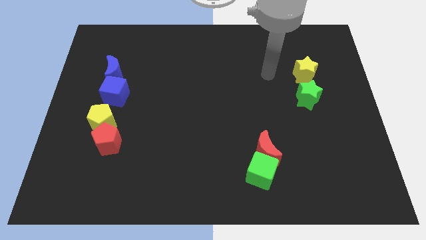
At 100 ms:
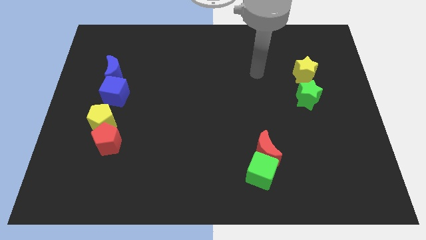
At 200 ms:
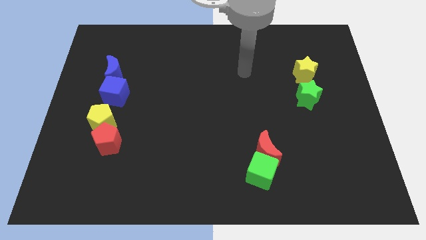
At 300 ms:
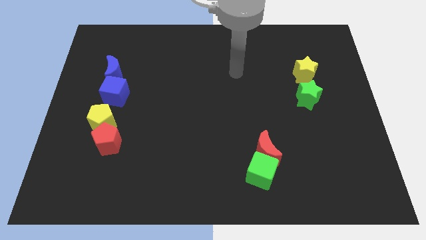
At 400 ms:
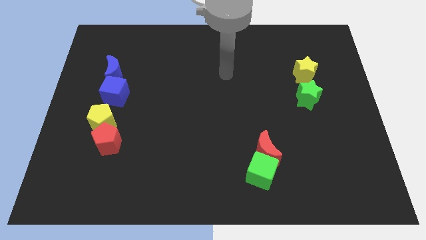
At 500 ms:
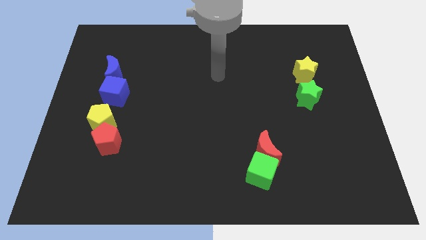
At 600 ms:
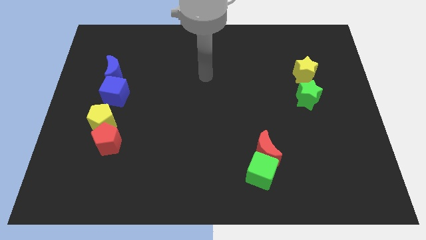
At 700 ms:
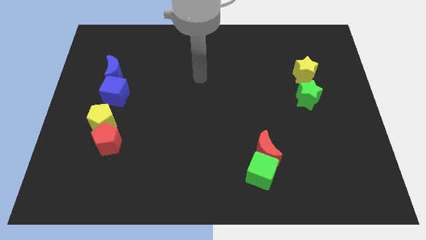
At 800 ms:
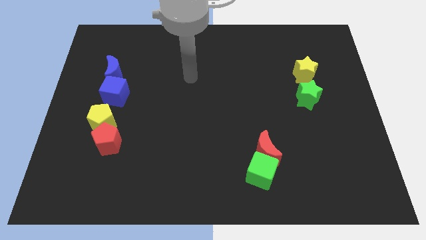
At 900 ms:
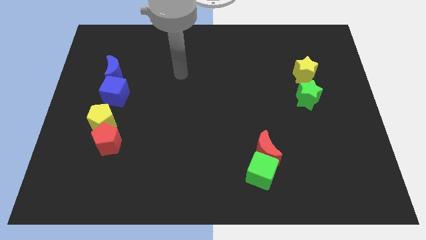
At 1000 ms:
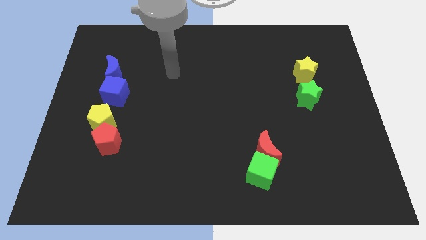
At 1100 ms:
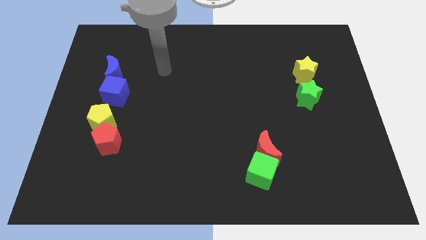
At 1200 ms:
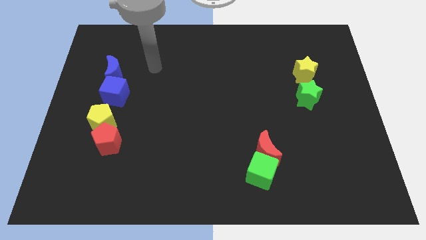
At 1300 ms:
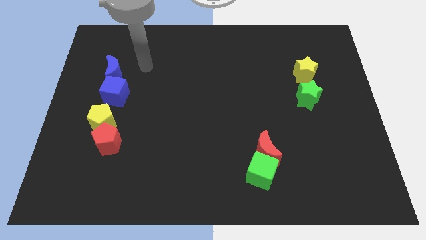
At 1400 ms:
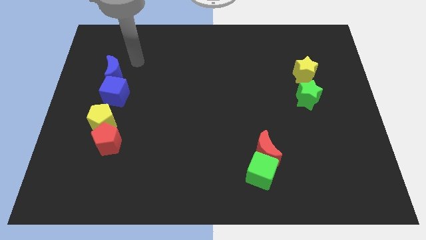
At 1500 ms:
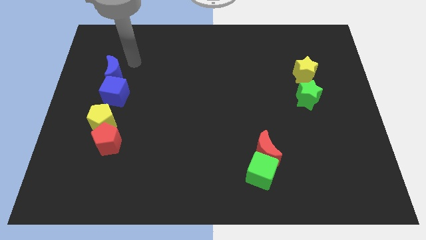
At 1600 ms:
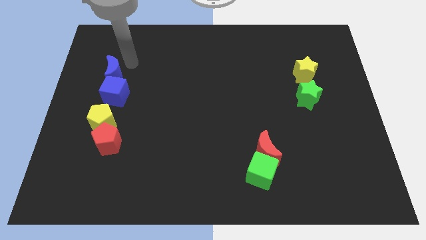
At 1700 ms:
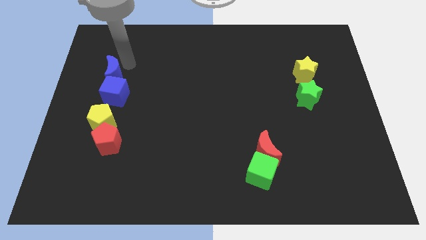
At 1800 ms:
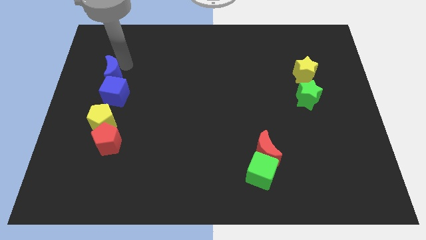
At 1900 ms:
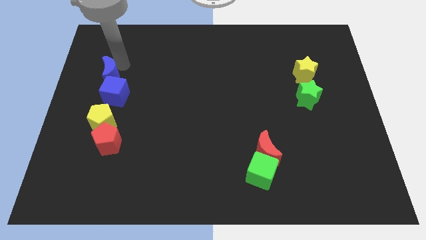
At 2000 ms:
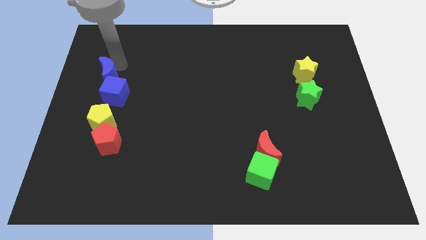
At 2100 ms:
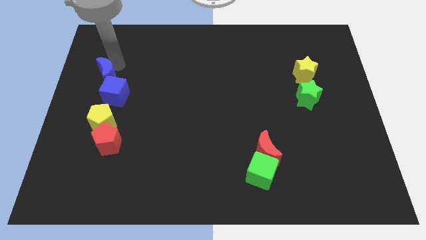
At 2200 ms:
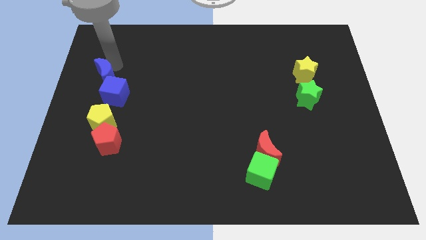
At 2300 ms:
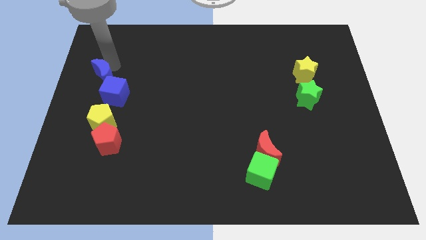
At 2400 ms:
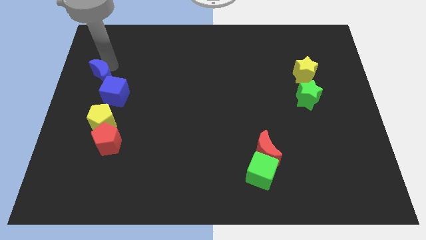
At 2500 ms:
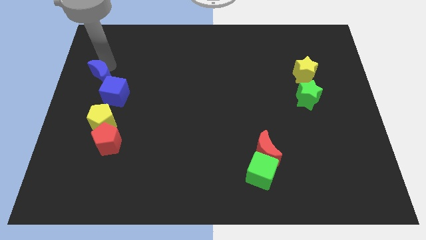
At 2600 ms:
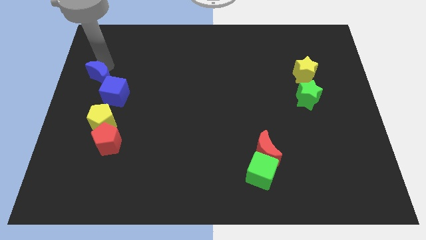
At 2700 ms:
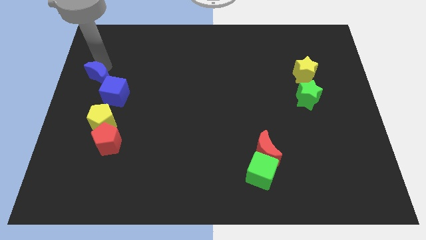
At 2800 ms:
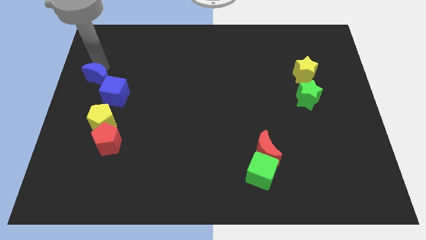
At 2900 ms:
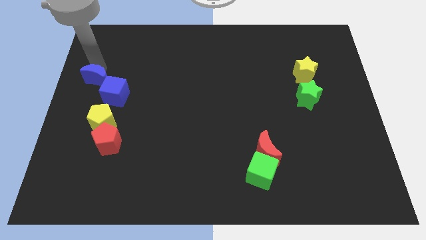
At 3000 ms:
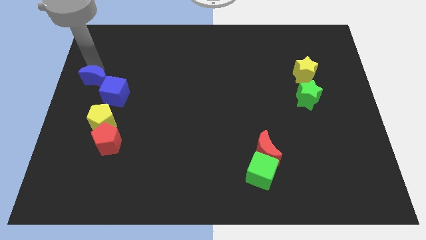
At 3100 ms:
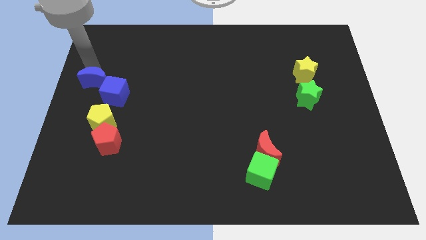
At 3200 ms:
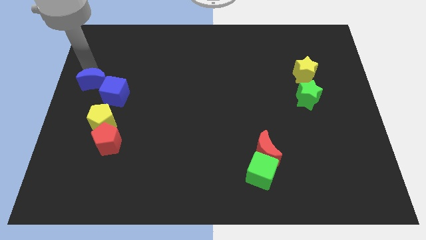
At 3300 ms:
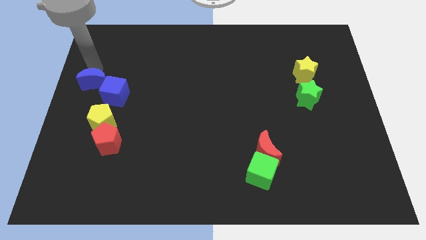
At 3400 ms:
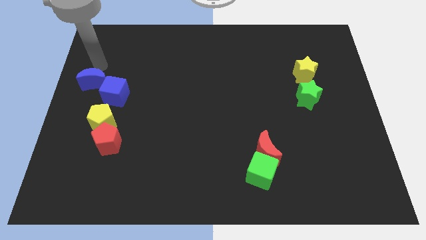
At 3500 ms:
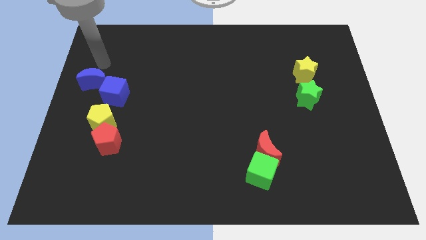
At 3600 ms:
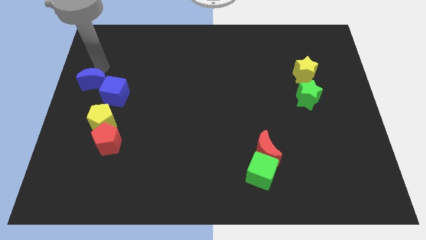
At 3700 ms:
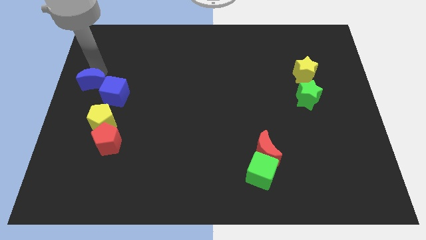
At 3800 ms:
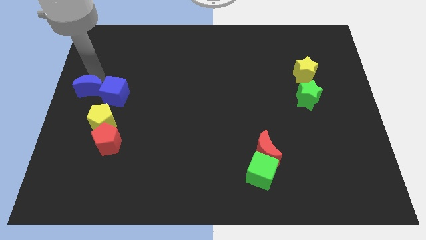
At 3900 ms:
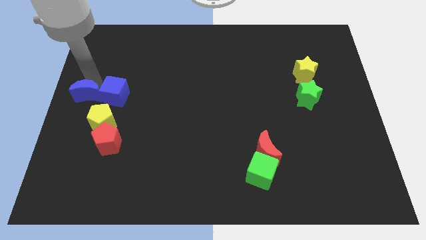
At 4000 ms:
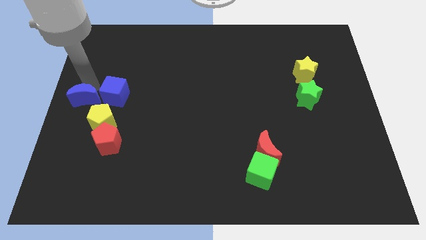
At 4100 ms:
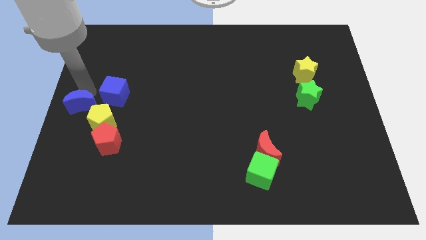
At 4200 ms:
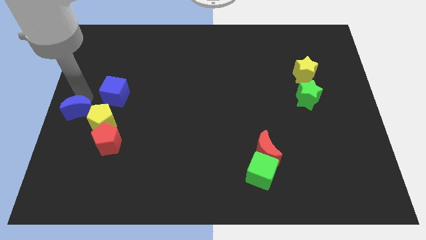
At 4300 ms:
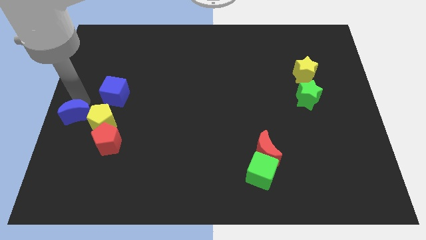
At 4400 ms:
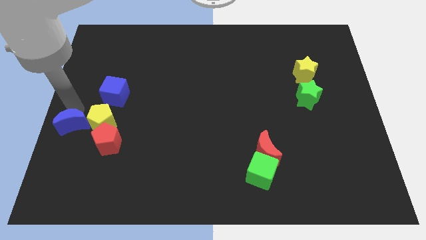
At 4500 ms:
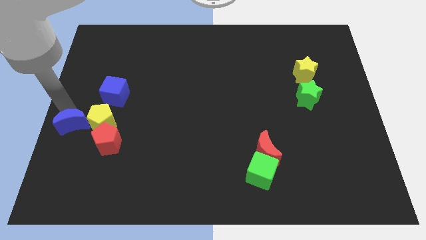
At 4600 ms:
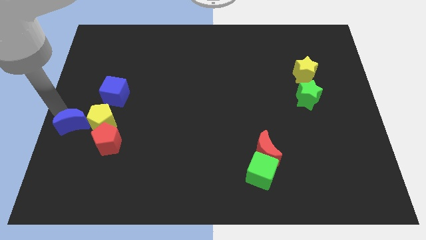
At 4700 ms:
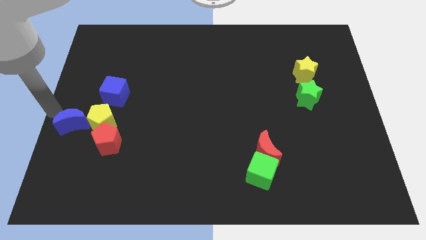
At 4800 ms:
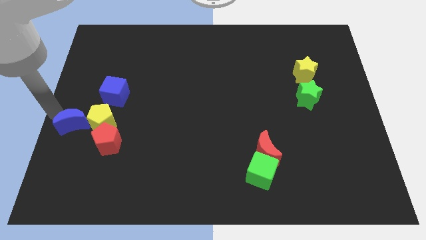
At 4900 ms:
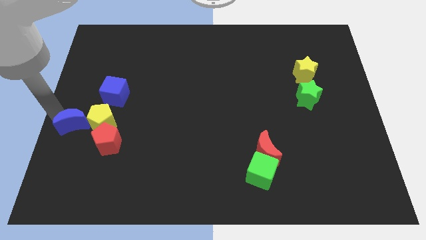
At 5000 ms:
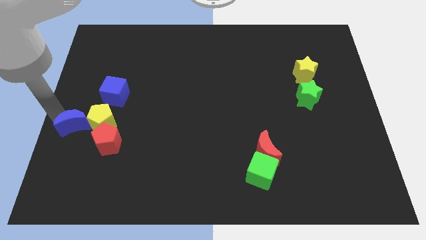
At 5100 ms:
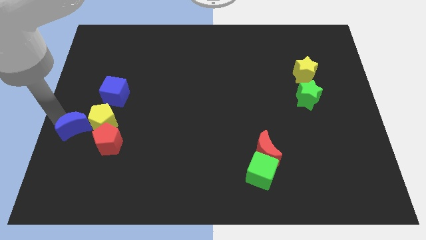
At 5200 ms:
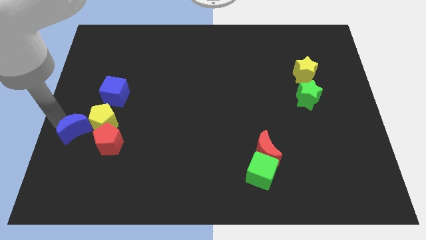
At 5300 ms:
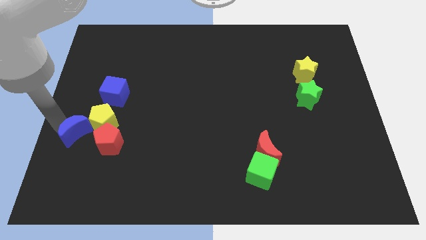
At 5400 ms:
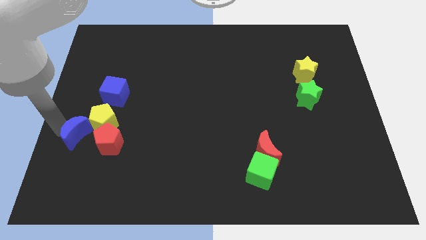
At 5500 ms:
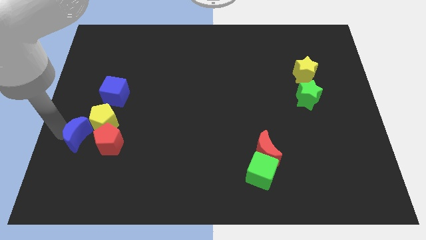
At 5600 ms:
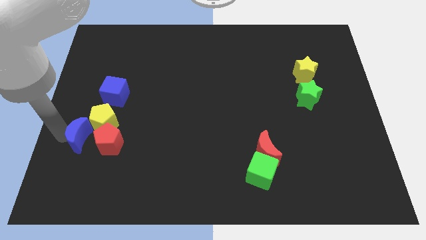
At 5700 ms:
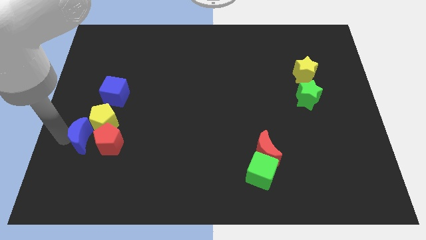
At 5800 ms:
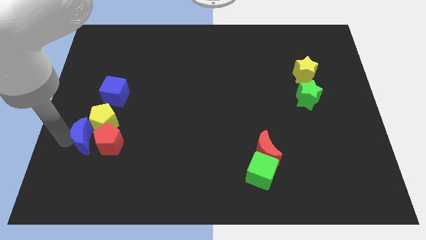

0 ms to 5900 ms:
push the blue moon towards the red pentagon

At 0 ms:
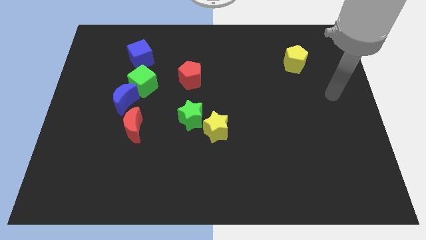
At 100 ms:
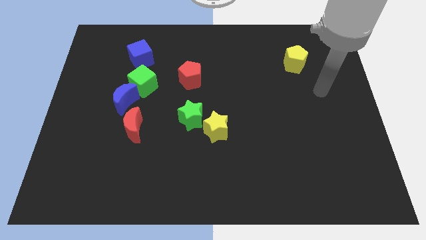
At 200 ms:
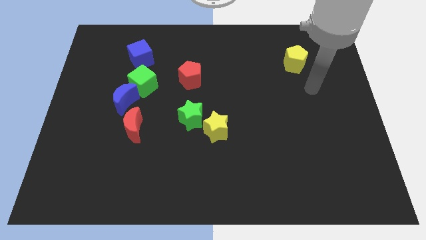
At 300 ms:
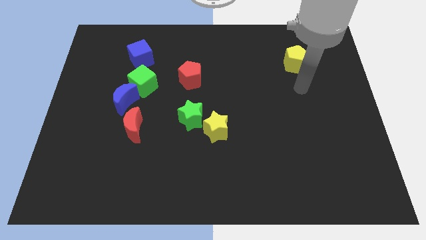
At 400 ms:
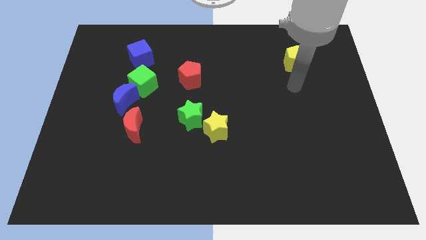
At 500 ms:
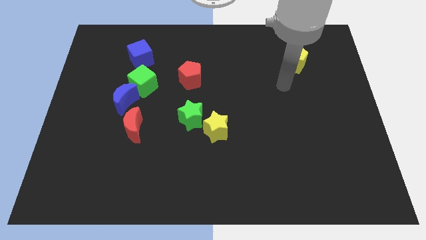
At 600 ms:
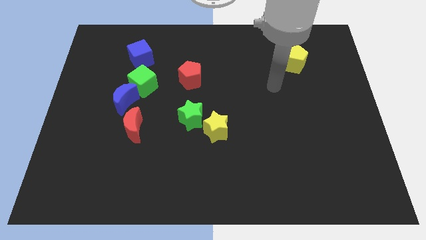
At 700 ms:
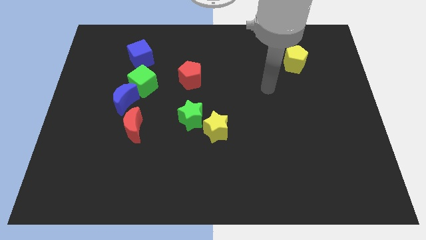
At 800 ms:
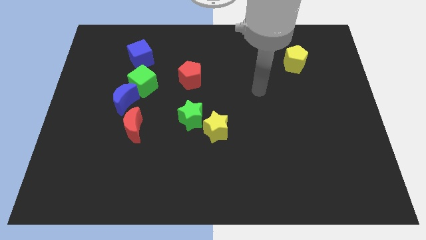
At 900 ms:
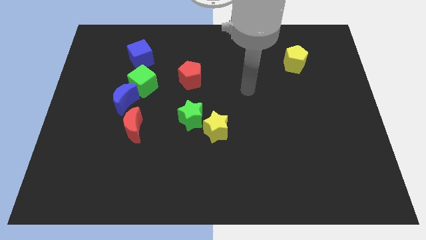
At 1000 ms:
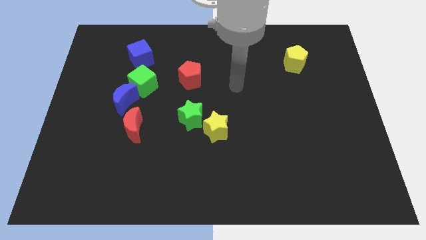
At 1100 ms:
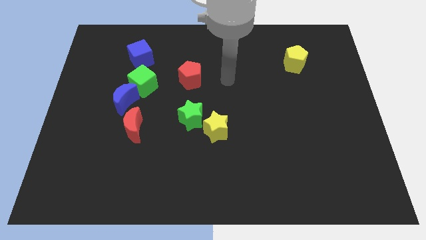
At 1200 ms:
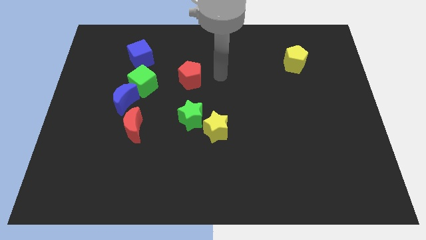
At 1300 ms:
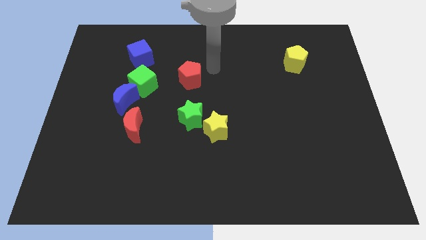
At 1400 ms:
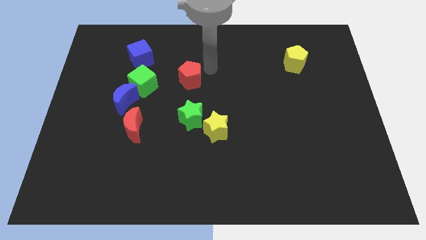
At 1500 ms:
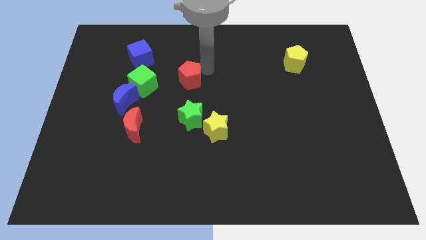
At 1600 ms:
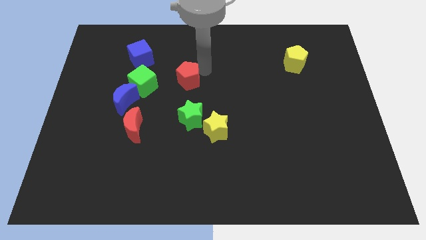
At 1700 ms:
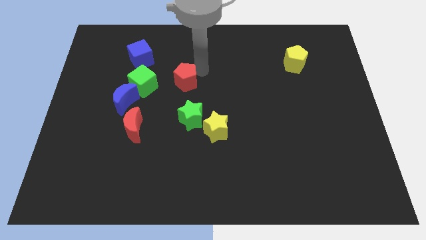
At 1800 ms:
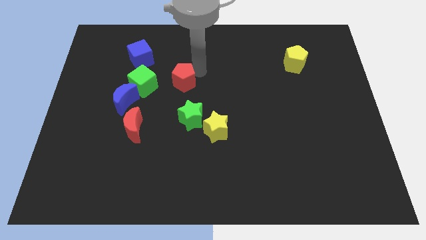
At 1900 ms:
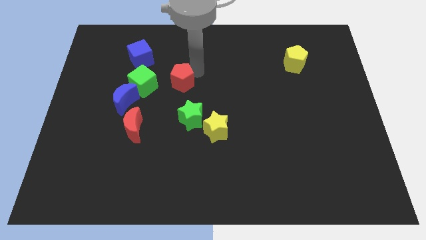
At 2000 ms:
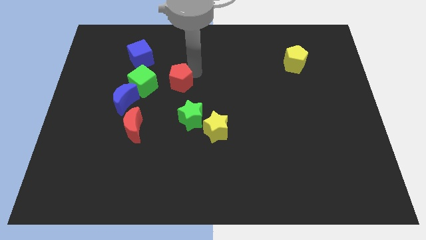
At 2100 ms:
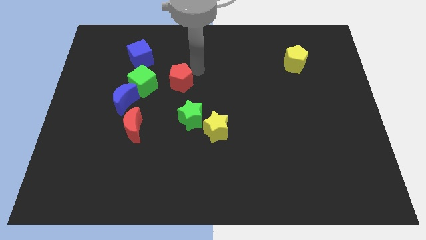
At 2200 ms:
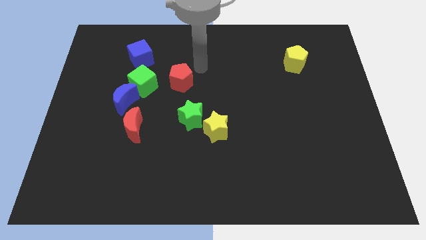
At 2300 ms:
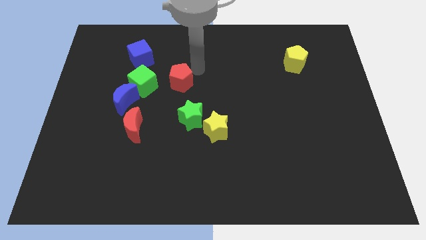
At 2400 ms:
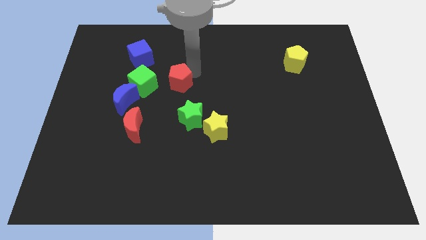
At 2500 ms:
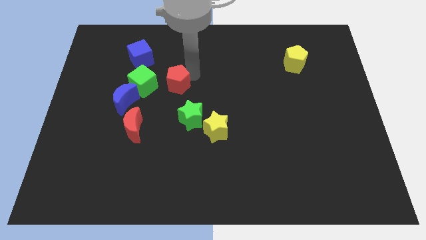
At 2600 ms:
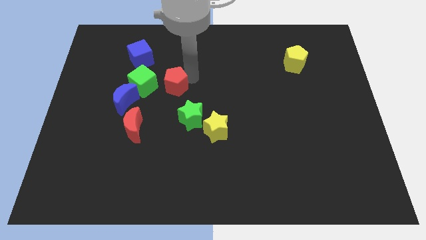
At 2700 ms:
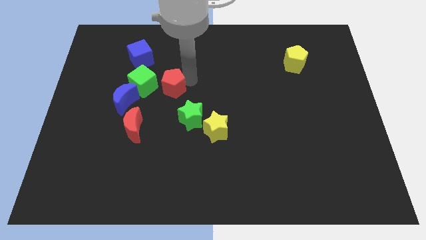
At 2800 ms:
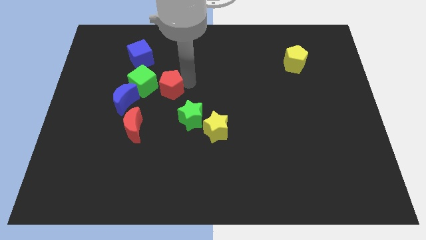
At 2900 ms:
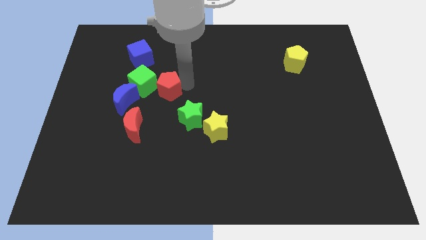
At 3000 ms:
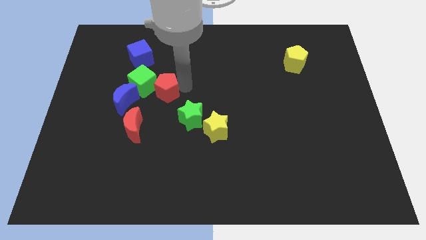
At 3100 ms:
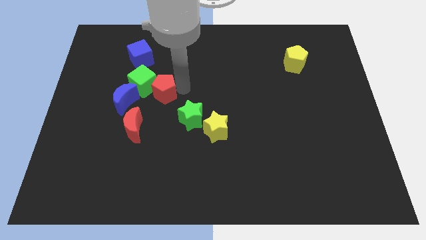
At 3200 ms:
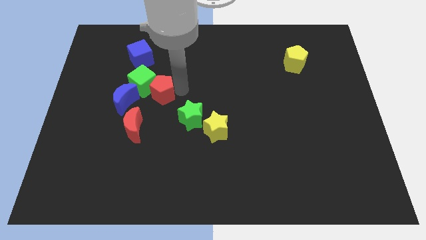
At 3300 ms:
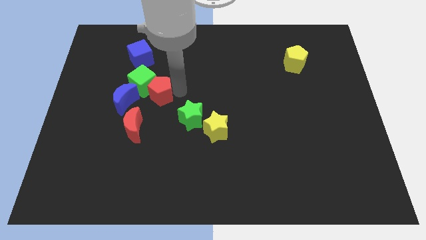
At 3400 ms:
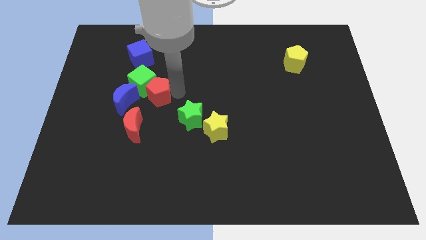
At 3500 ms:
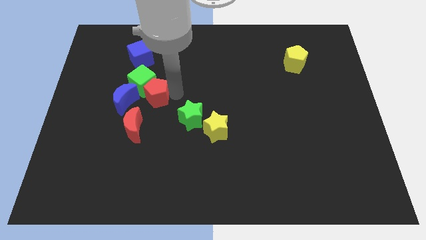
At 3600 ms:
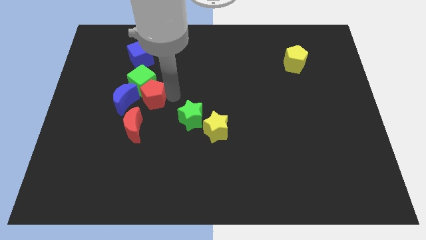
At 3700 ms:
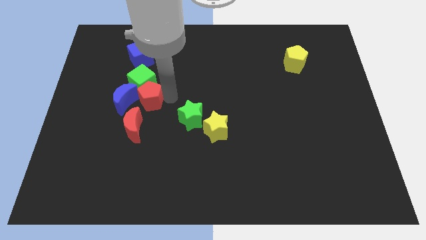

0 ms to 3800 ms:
slide the red pentagon towards the blue moon
